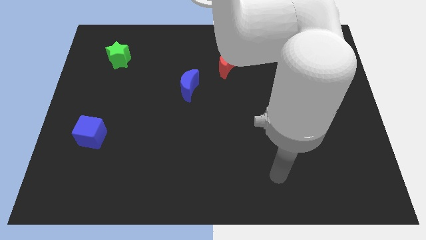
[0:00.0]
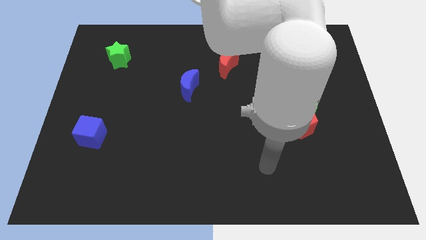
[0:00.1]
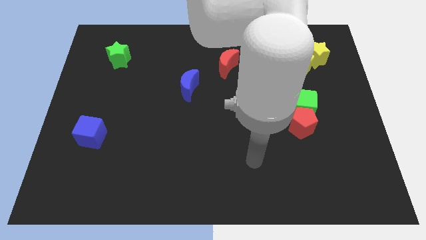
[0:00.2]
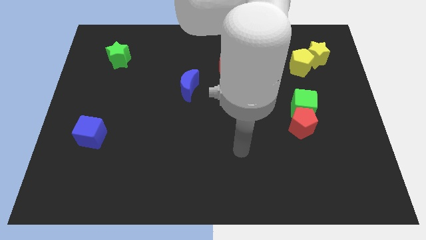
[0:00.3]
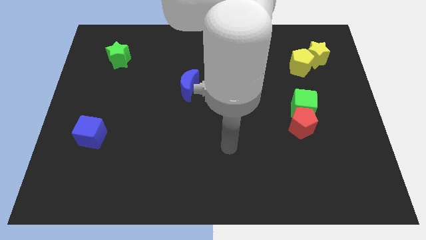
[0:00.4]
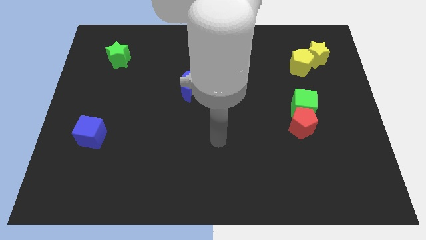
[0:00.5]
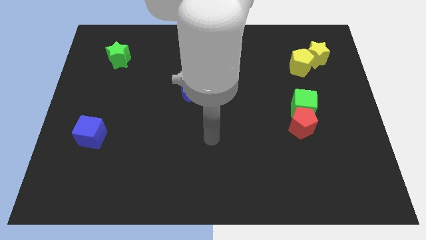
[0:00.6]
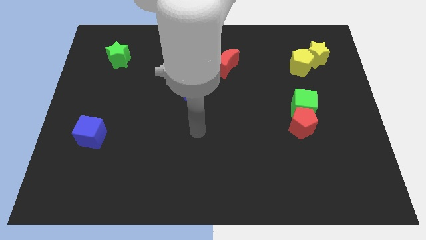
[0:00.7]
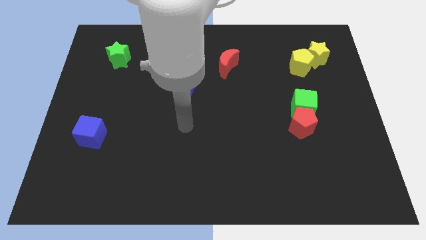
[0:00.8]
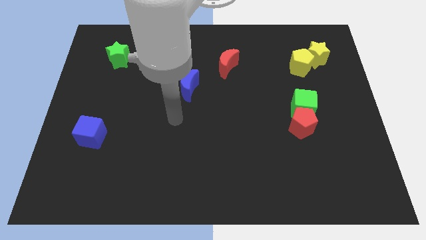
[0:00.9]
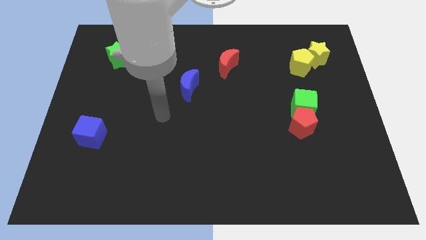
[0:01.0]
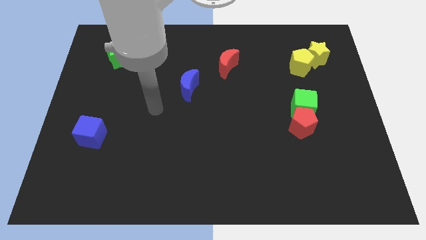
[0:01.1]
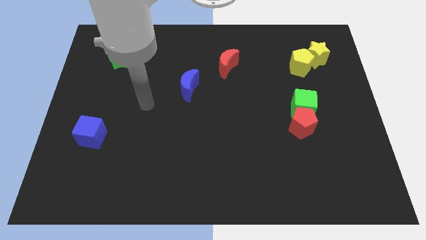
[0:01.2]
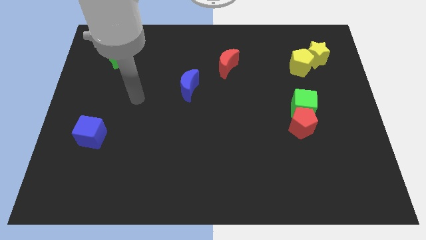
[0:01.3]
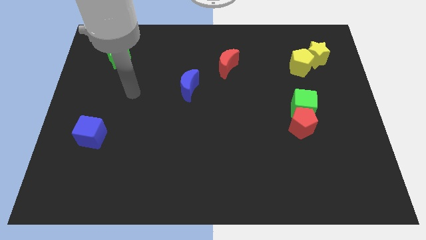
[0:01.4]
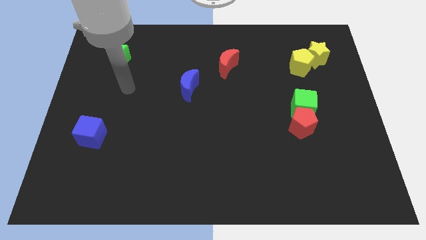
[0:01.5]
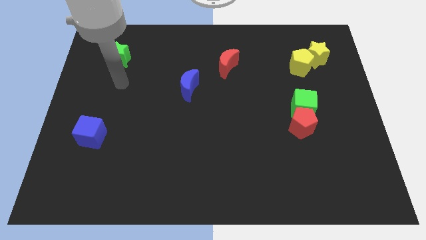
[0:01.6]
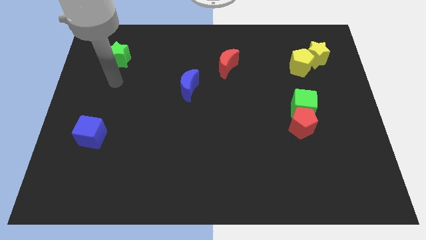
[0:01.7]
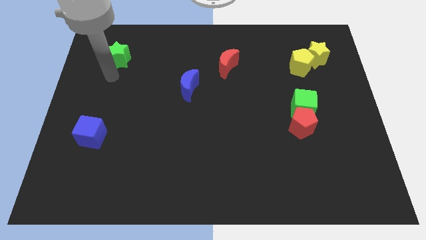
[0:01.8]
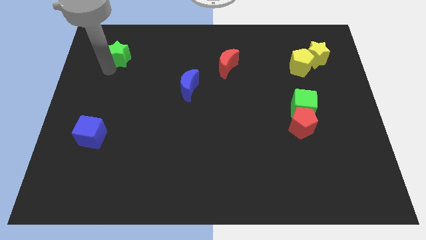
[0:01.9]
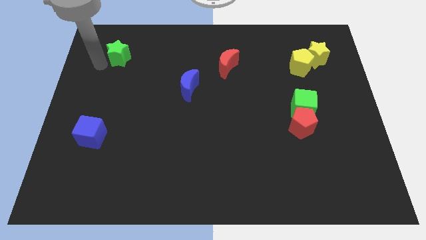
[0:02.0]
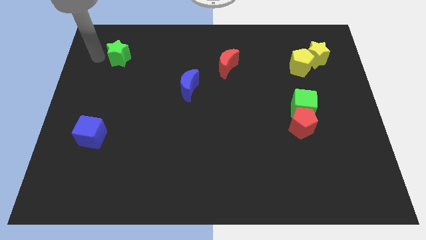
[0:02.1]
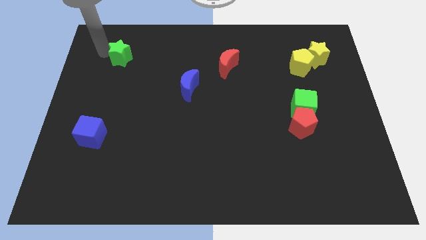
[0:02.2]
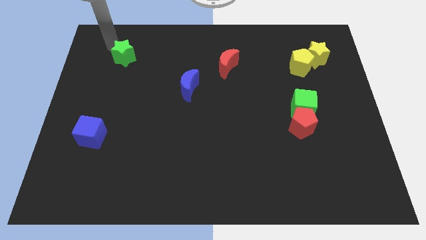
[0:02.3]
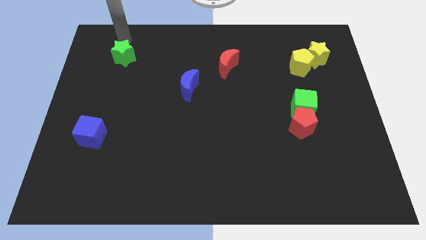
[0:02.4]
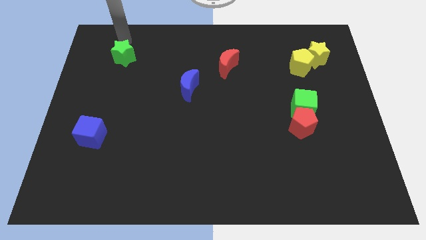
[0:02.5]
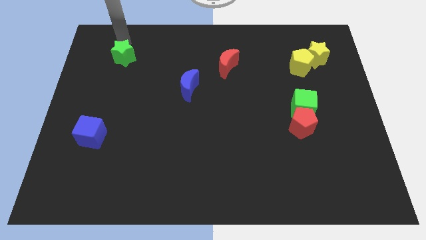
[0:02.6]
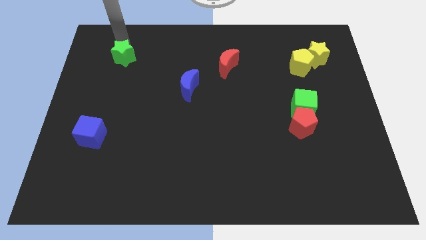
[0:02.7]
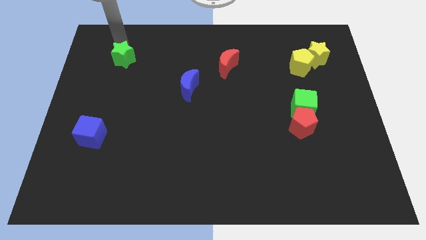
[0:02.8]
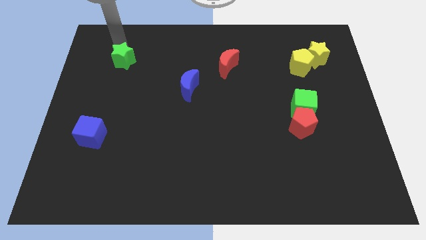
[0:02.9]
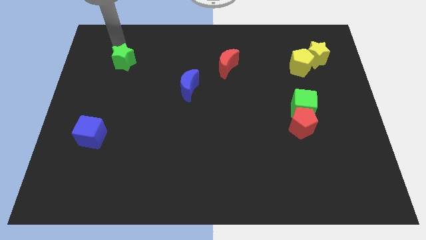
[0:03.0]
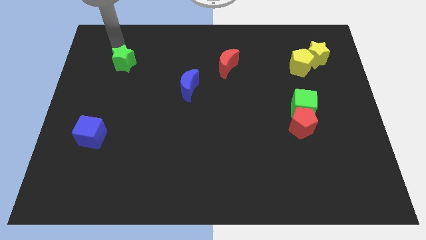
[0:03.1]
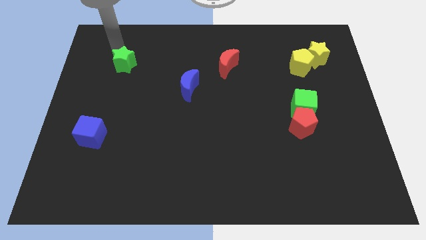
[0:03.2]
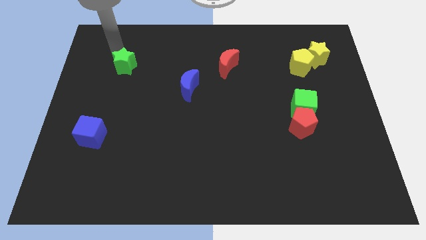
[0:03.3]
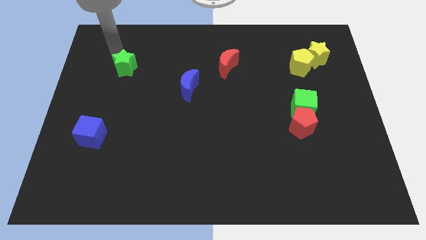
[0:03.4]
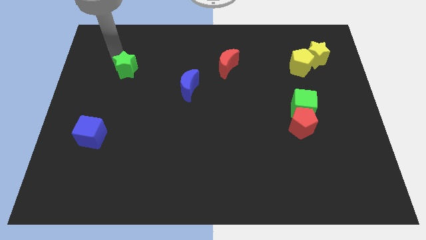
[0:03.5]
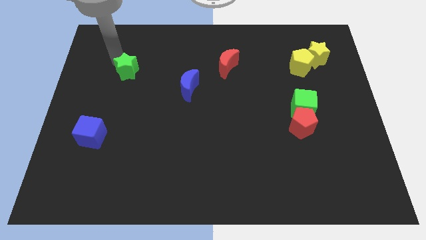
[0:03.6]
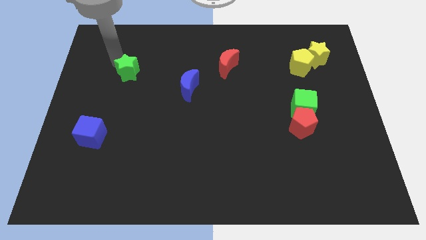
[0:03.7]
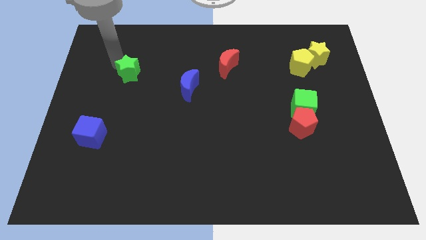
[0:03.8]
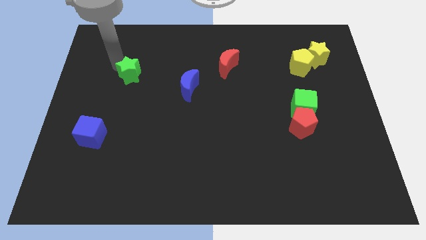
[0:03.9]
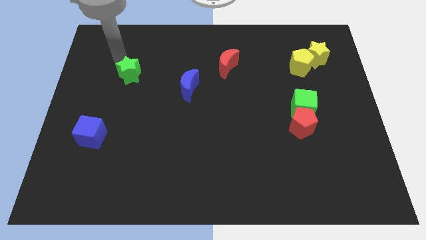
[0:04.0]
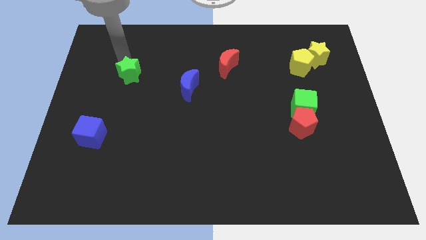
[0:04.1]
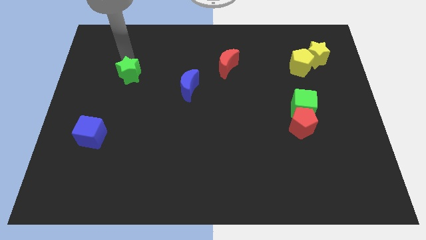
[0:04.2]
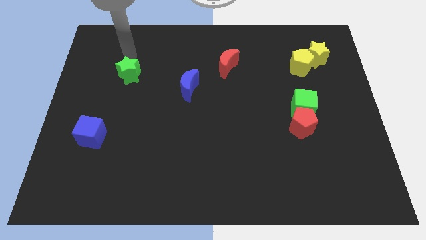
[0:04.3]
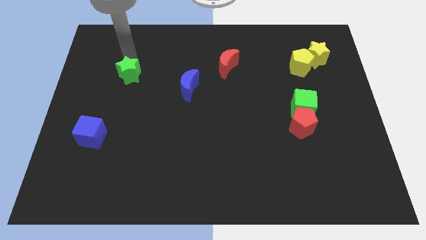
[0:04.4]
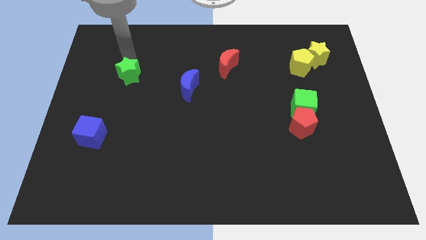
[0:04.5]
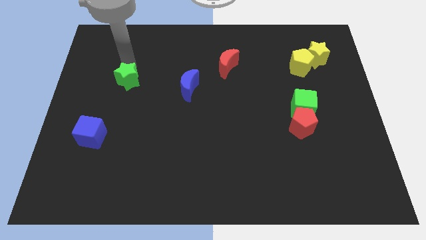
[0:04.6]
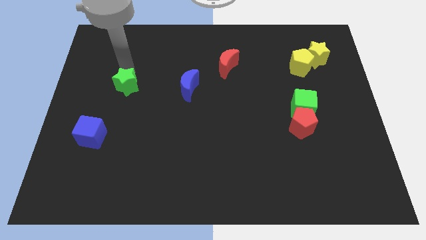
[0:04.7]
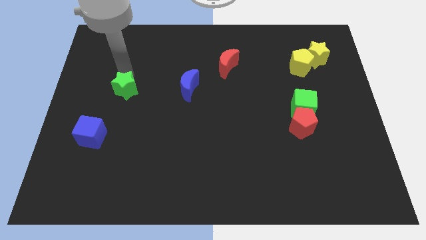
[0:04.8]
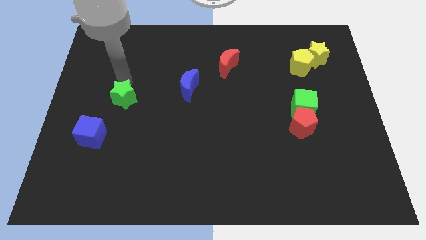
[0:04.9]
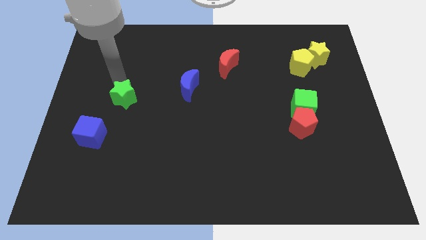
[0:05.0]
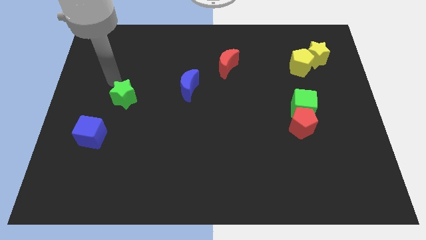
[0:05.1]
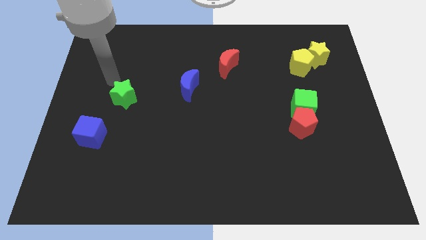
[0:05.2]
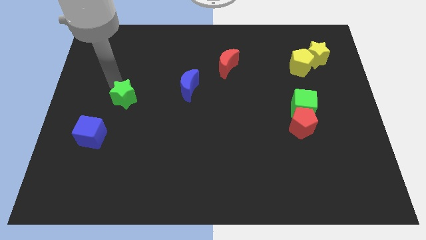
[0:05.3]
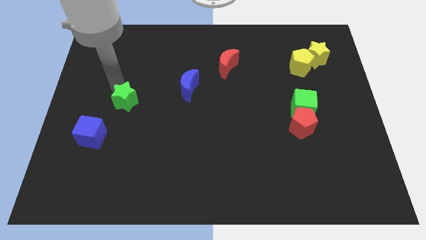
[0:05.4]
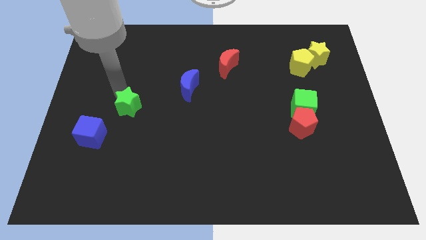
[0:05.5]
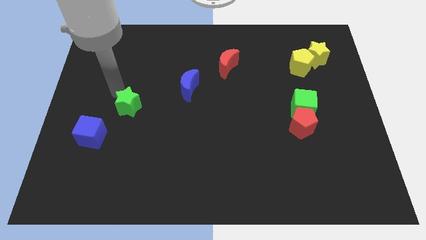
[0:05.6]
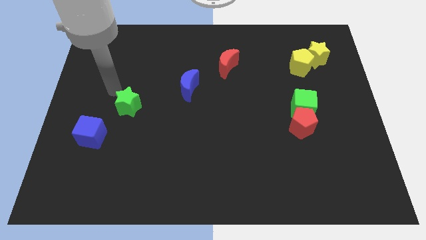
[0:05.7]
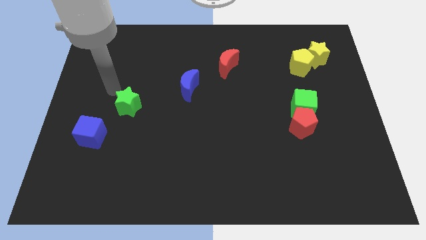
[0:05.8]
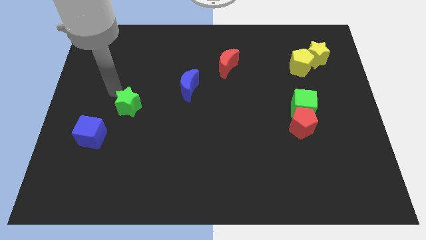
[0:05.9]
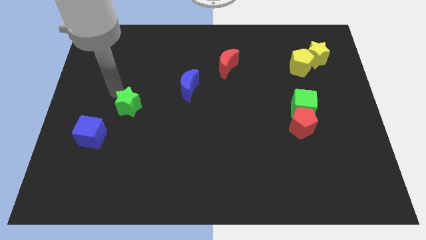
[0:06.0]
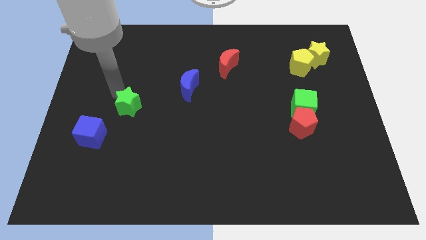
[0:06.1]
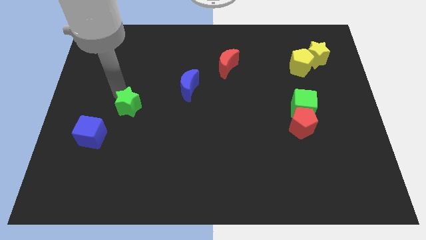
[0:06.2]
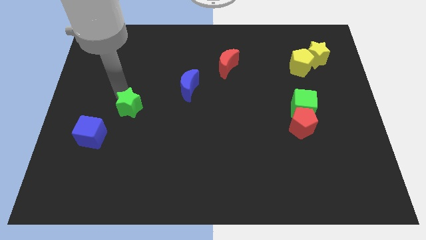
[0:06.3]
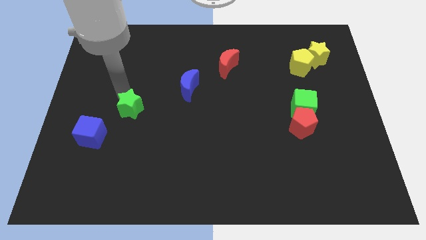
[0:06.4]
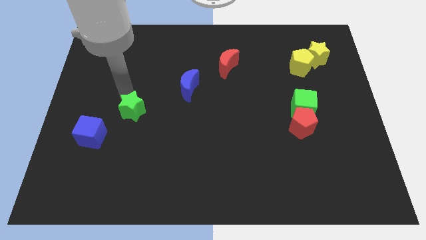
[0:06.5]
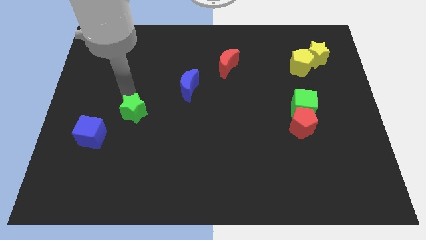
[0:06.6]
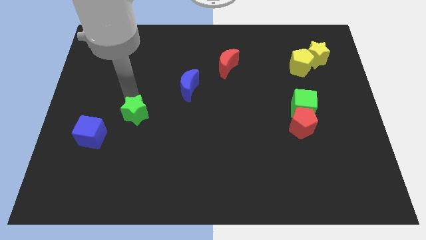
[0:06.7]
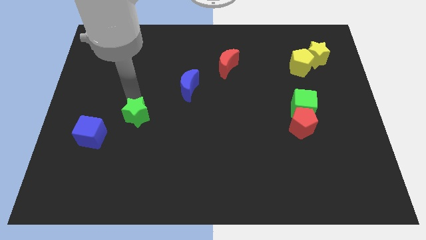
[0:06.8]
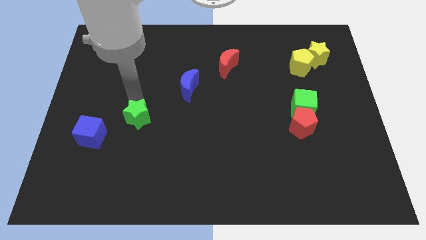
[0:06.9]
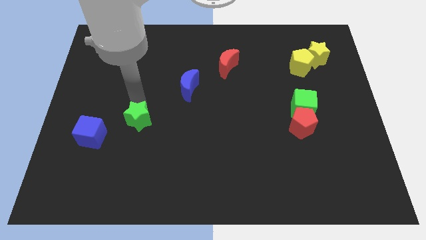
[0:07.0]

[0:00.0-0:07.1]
move the green star right of the blue cube
